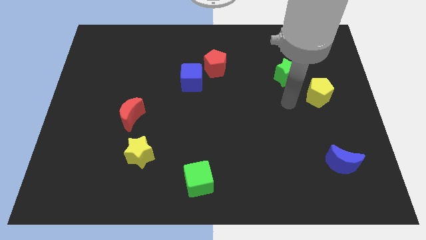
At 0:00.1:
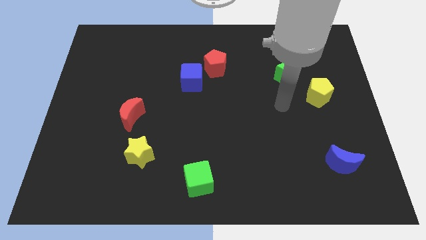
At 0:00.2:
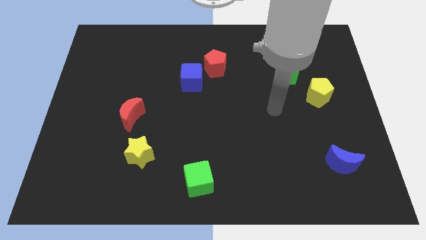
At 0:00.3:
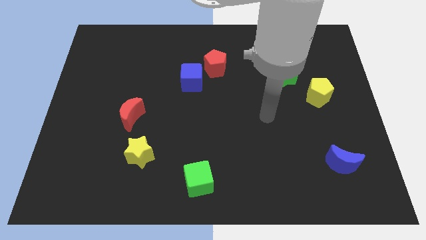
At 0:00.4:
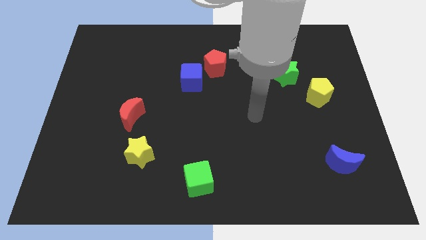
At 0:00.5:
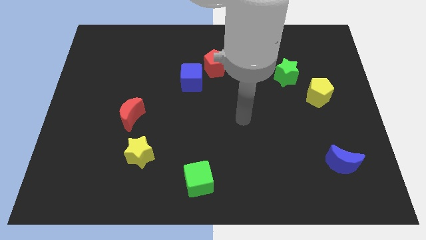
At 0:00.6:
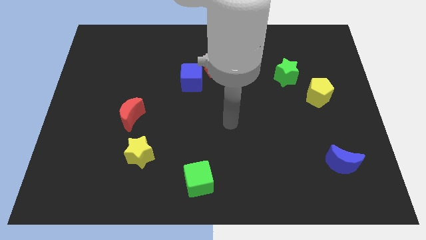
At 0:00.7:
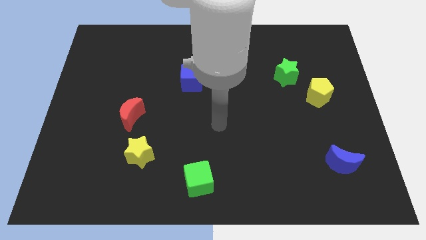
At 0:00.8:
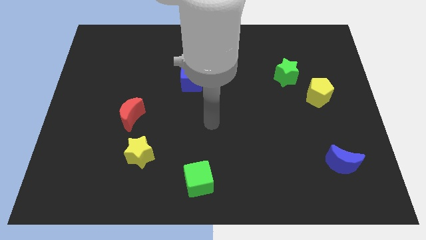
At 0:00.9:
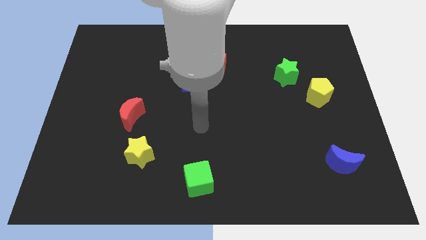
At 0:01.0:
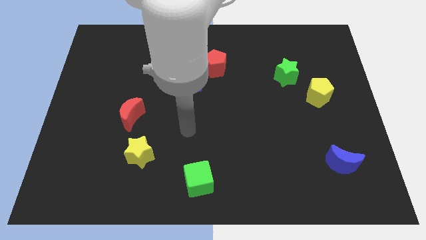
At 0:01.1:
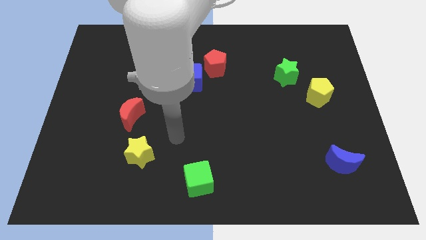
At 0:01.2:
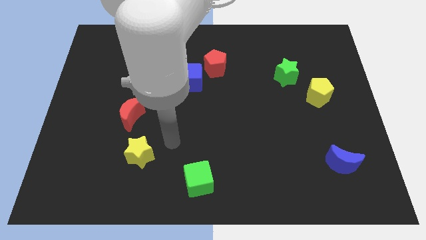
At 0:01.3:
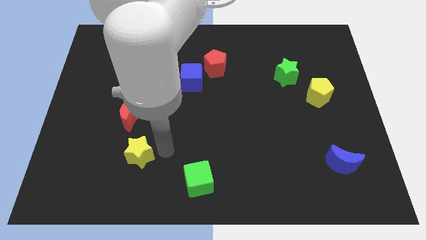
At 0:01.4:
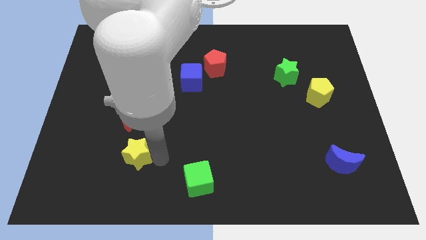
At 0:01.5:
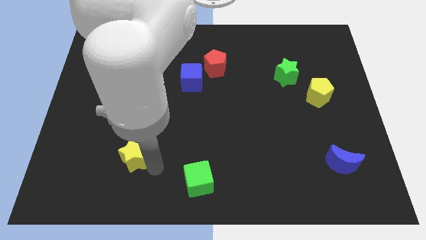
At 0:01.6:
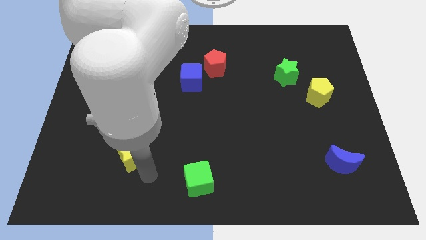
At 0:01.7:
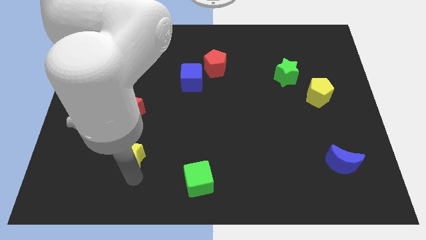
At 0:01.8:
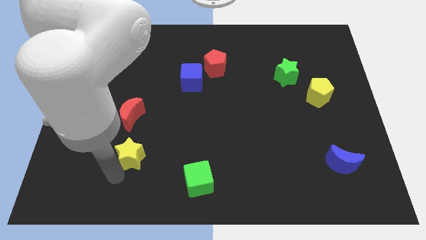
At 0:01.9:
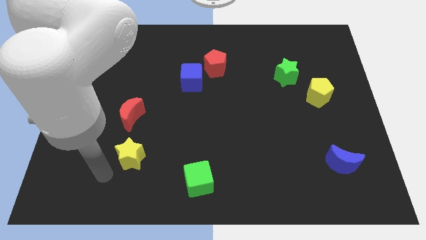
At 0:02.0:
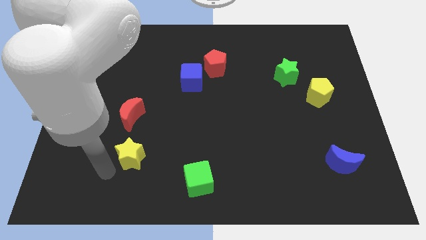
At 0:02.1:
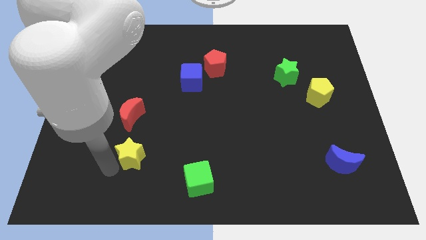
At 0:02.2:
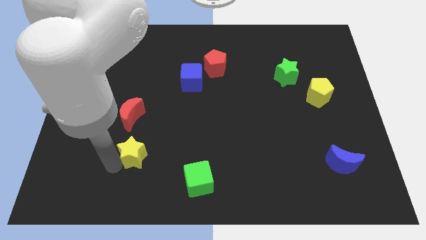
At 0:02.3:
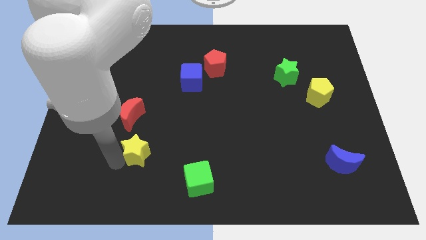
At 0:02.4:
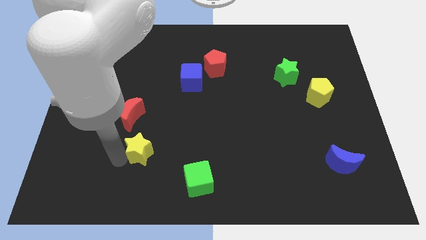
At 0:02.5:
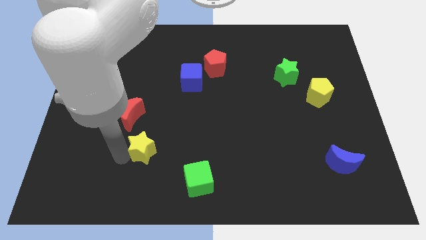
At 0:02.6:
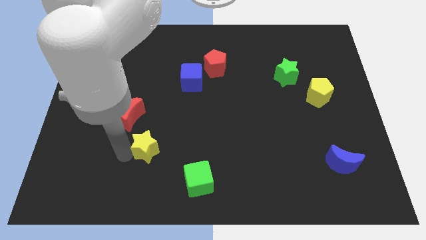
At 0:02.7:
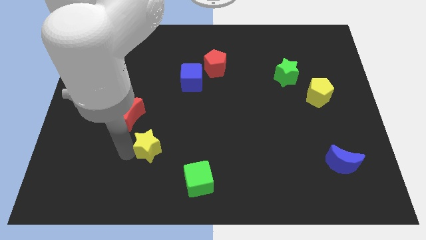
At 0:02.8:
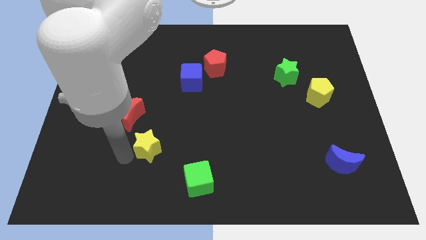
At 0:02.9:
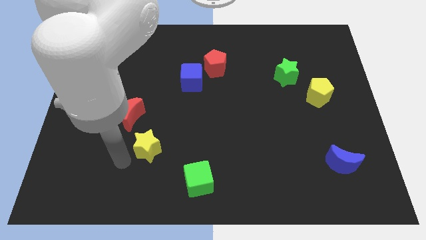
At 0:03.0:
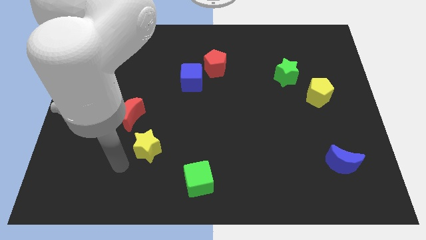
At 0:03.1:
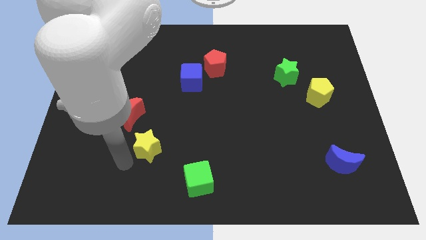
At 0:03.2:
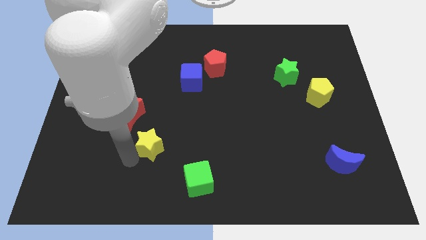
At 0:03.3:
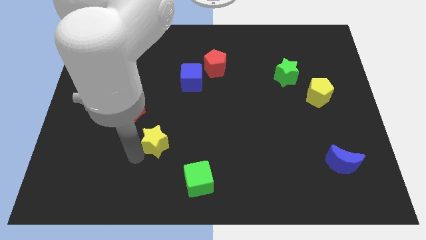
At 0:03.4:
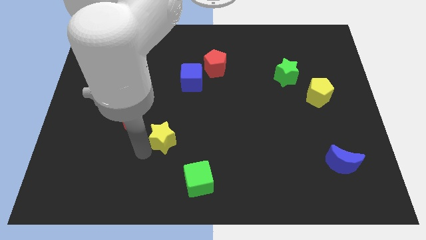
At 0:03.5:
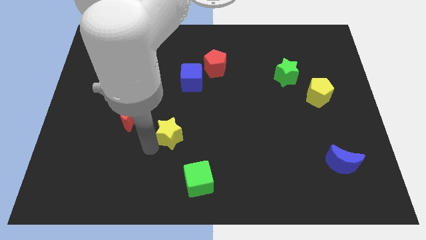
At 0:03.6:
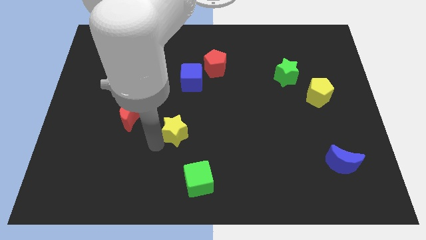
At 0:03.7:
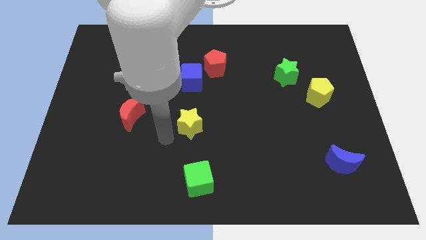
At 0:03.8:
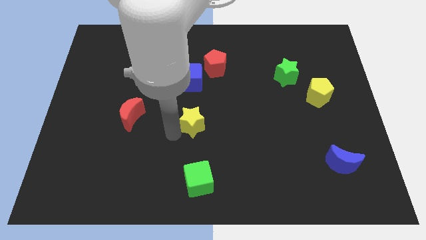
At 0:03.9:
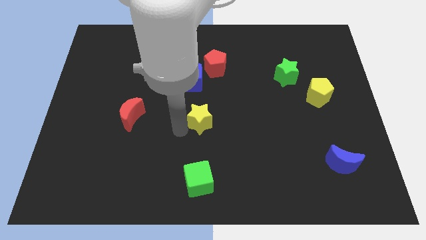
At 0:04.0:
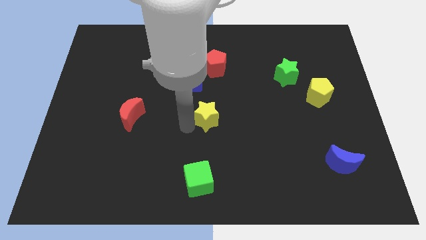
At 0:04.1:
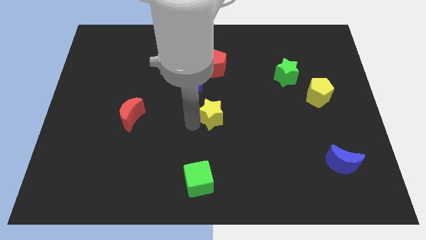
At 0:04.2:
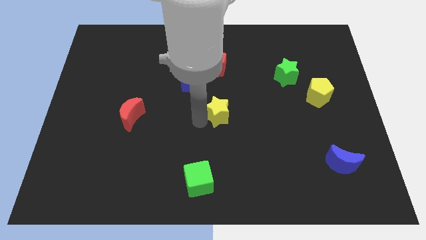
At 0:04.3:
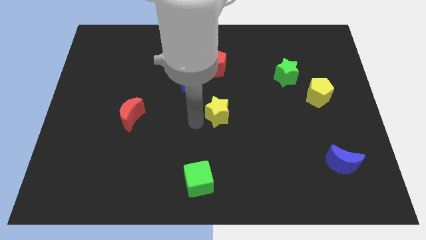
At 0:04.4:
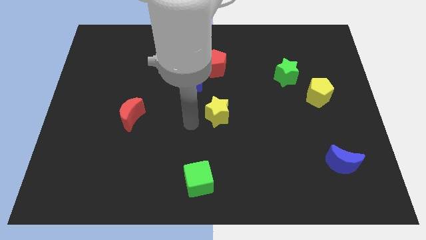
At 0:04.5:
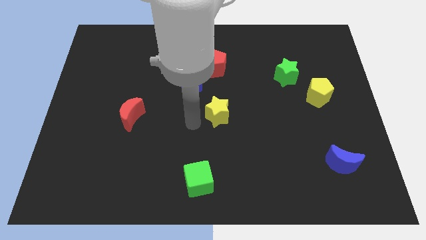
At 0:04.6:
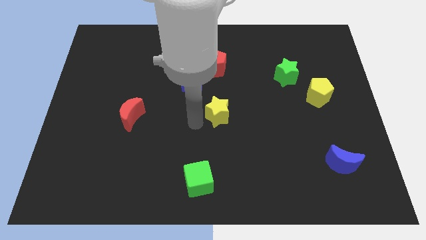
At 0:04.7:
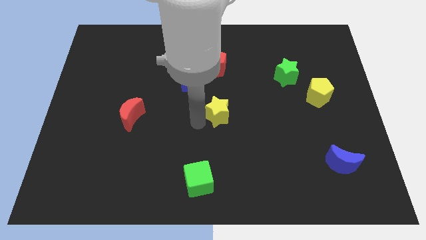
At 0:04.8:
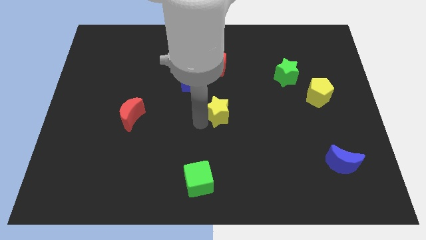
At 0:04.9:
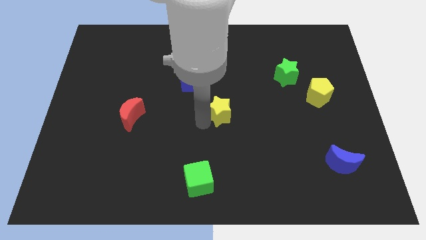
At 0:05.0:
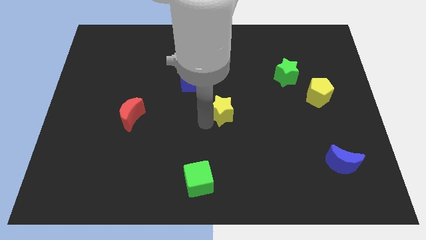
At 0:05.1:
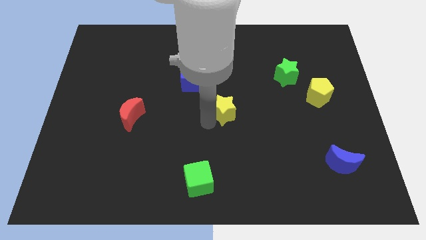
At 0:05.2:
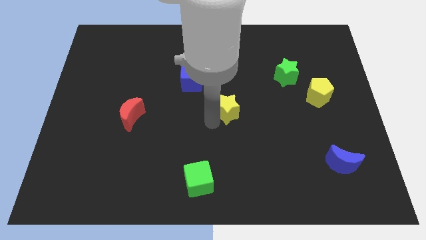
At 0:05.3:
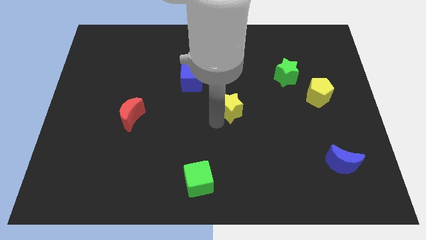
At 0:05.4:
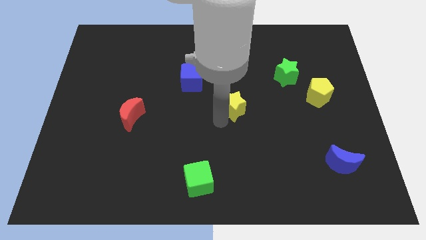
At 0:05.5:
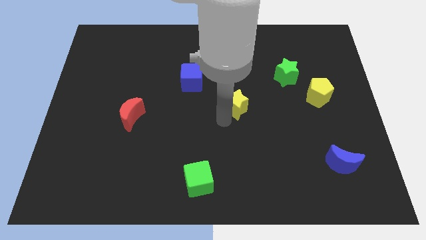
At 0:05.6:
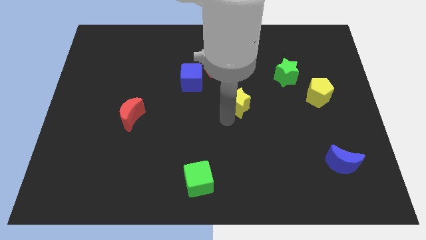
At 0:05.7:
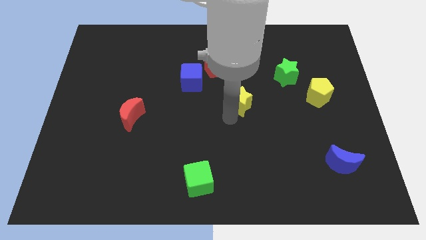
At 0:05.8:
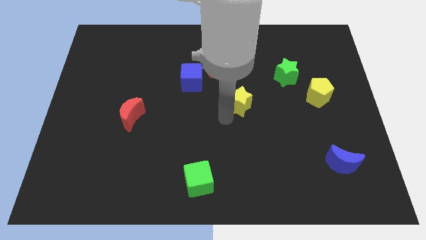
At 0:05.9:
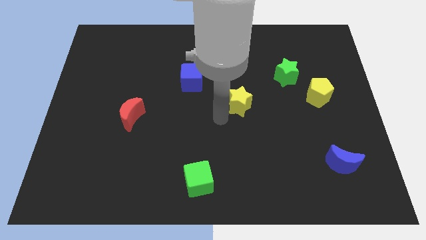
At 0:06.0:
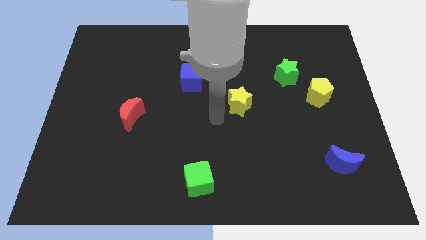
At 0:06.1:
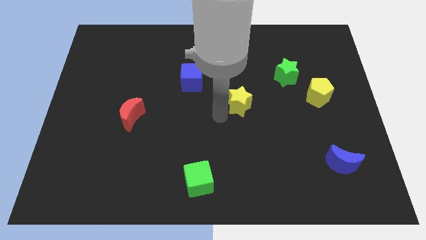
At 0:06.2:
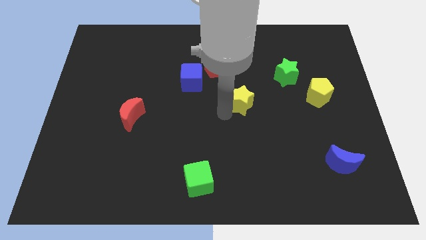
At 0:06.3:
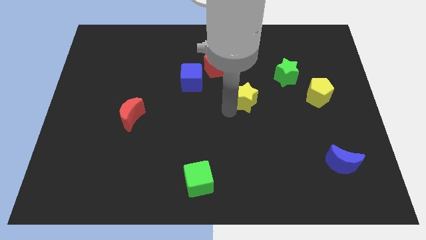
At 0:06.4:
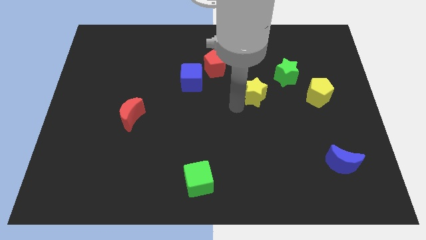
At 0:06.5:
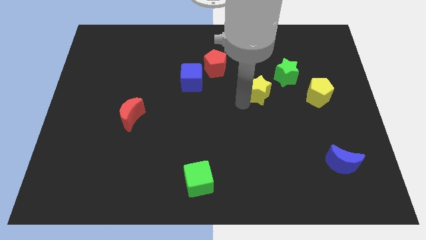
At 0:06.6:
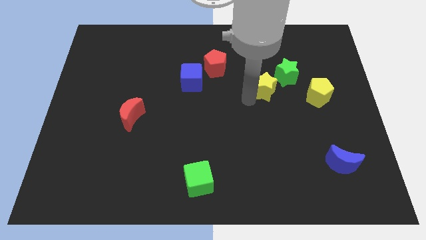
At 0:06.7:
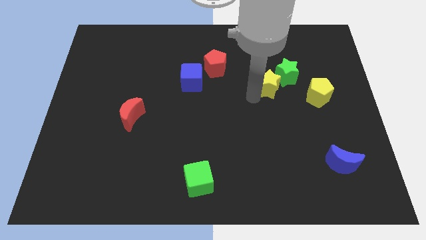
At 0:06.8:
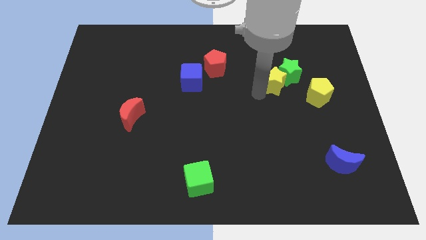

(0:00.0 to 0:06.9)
move the yellow star next to the green star

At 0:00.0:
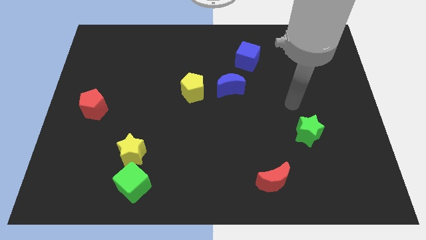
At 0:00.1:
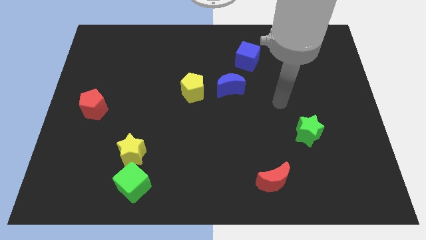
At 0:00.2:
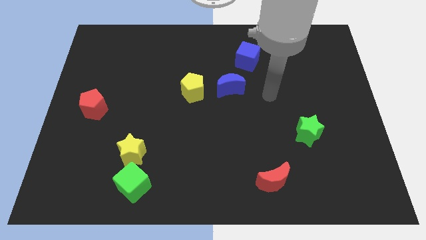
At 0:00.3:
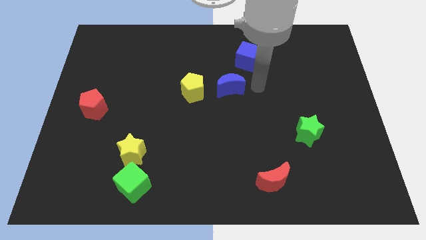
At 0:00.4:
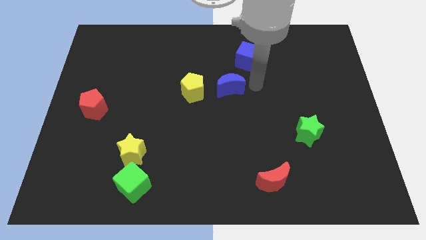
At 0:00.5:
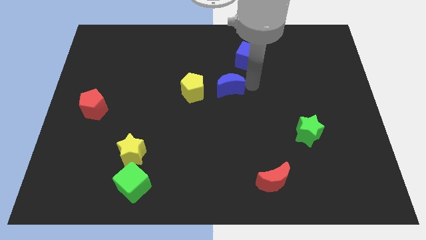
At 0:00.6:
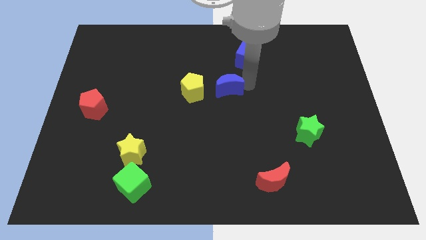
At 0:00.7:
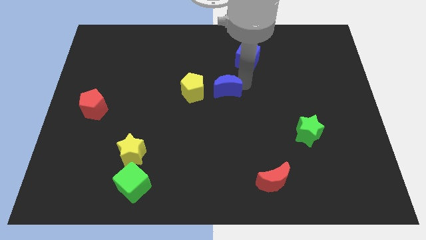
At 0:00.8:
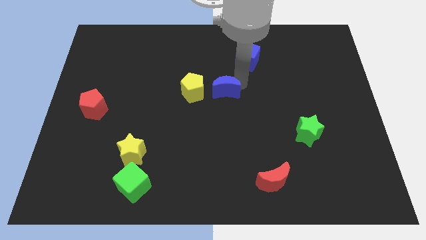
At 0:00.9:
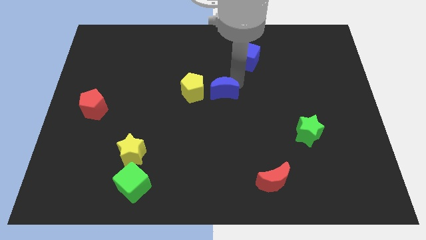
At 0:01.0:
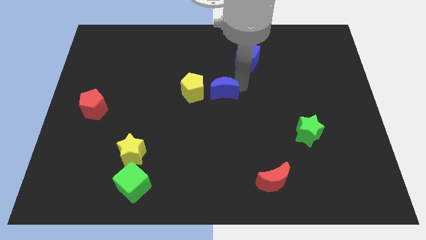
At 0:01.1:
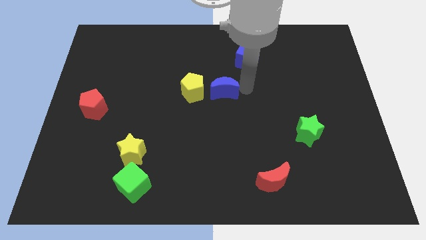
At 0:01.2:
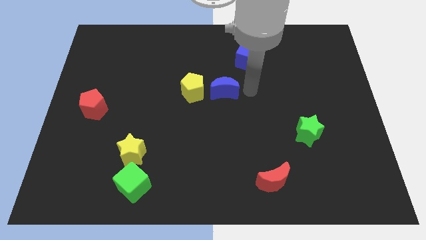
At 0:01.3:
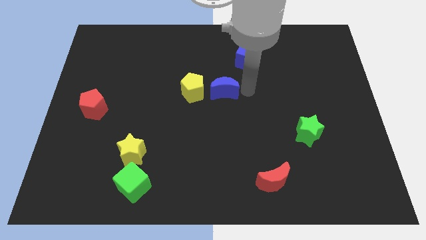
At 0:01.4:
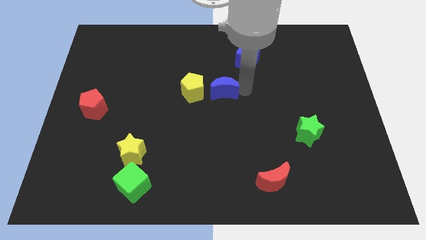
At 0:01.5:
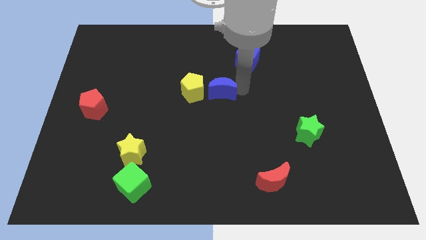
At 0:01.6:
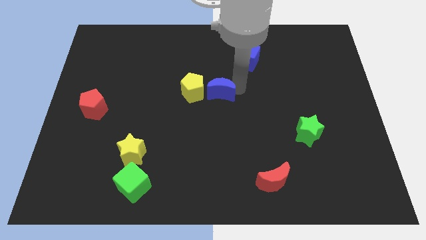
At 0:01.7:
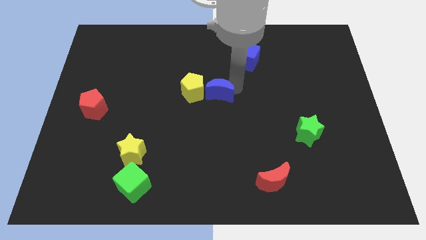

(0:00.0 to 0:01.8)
slide the blue moon to the yellow pentagon
